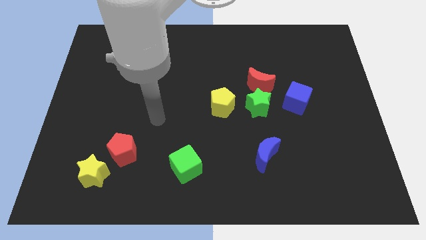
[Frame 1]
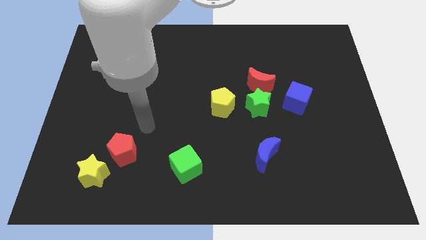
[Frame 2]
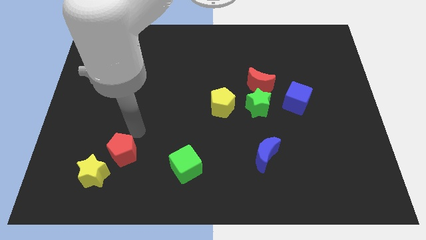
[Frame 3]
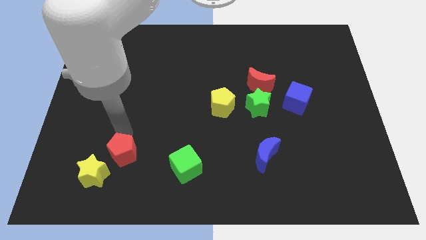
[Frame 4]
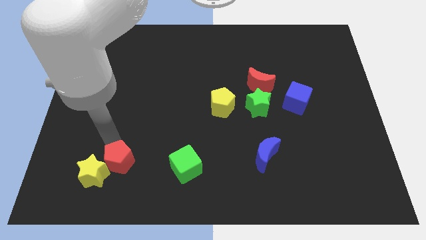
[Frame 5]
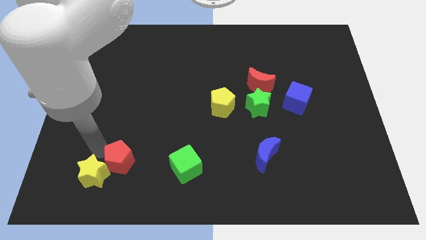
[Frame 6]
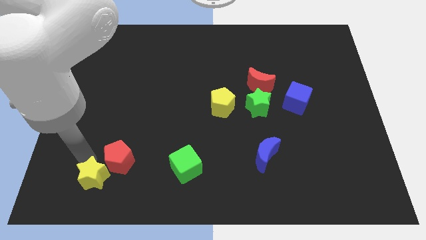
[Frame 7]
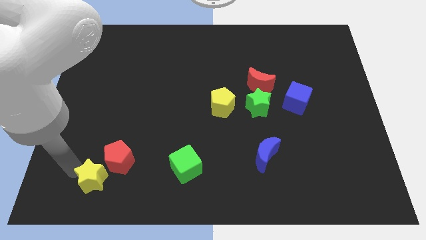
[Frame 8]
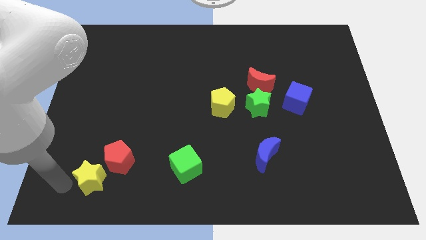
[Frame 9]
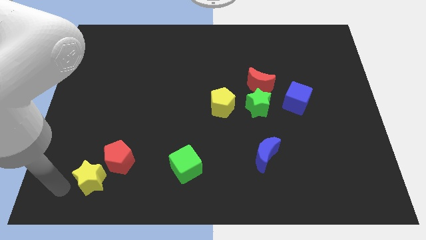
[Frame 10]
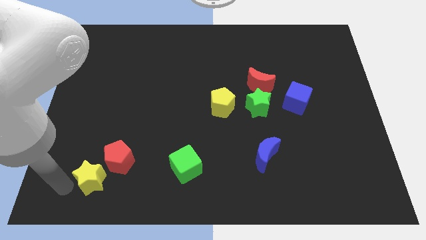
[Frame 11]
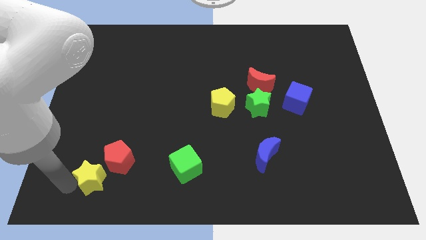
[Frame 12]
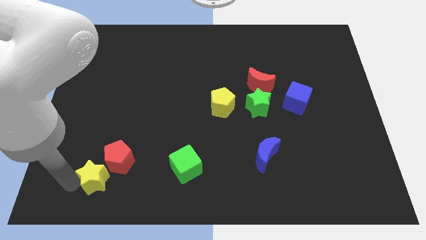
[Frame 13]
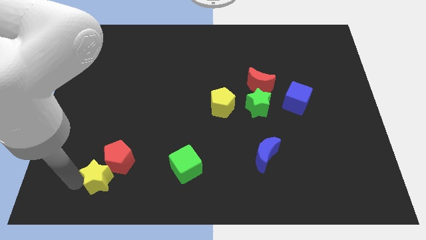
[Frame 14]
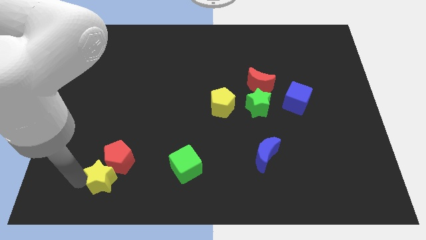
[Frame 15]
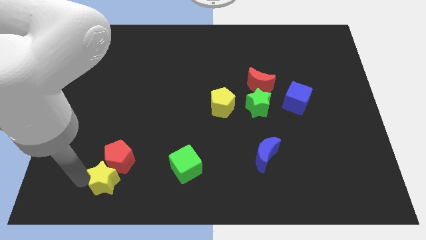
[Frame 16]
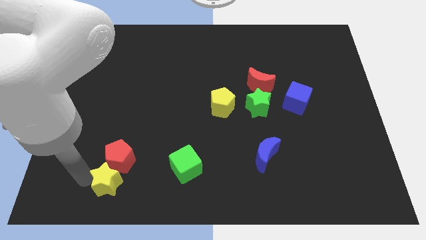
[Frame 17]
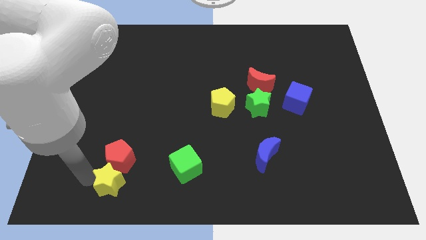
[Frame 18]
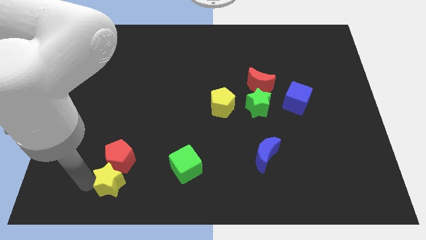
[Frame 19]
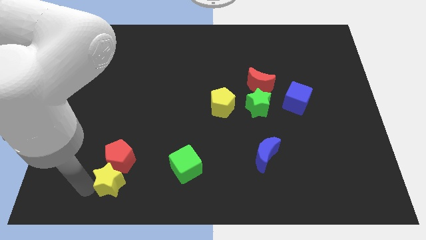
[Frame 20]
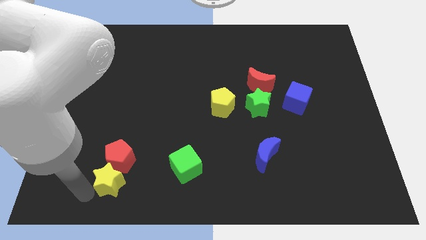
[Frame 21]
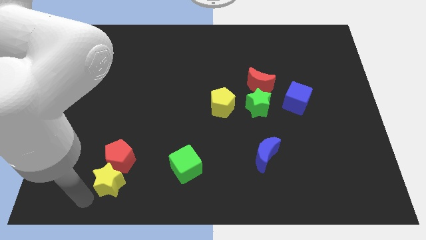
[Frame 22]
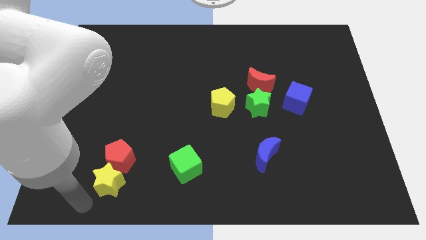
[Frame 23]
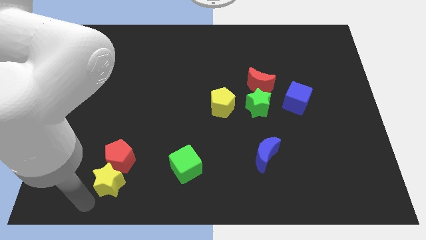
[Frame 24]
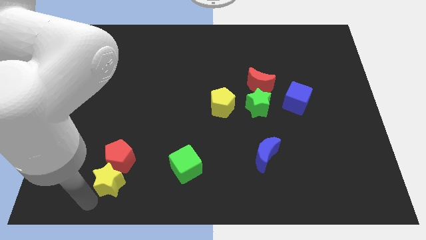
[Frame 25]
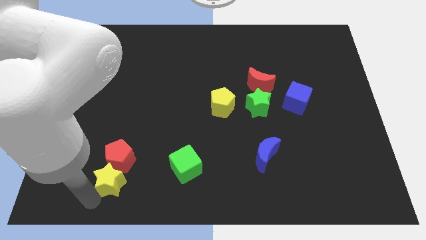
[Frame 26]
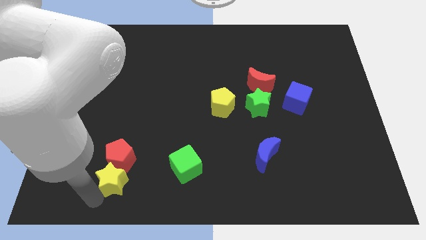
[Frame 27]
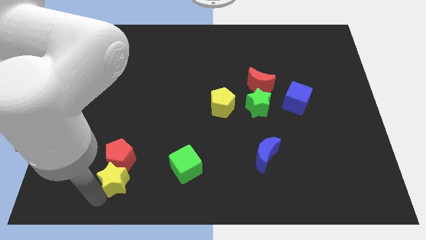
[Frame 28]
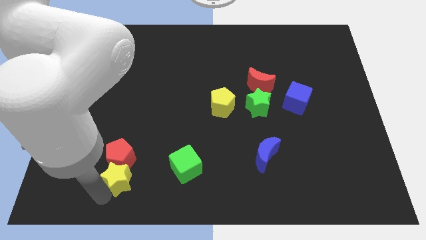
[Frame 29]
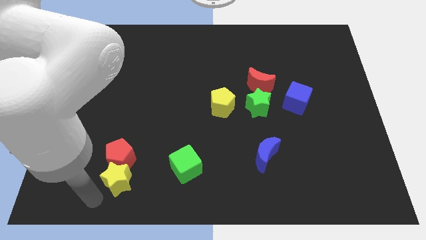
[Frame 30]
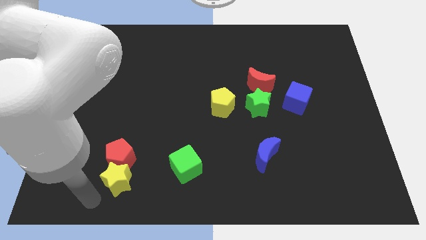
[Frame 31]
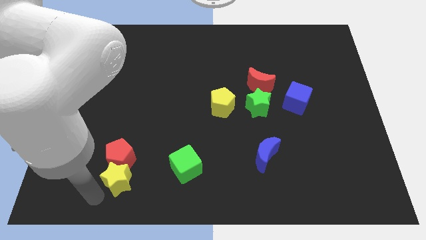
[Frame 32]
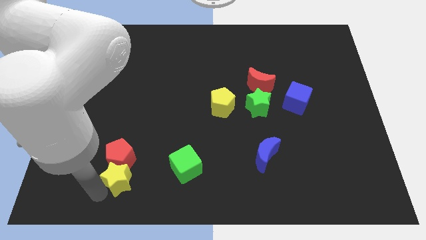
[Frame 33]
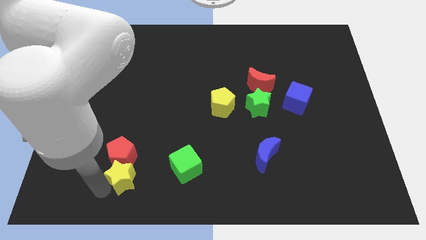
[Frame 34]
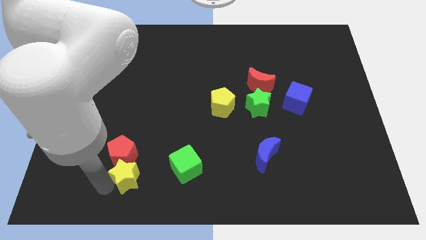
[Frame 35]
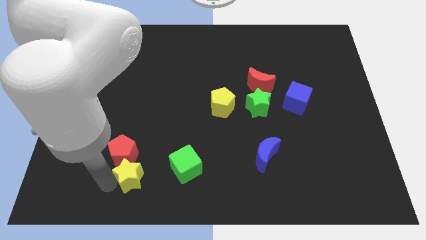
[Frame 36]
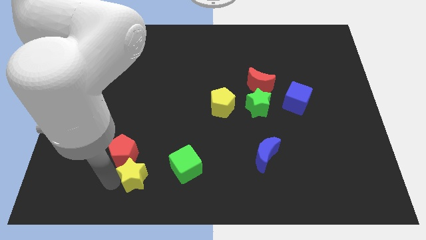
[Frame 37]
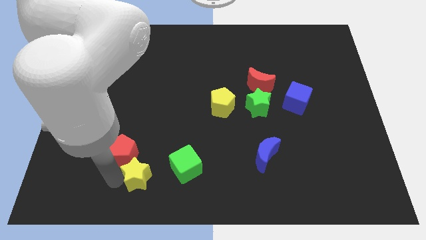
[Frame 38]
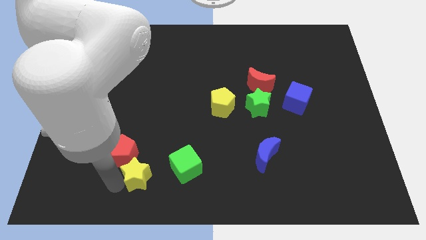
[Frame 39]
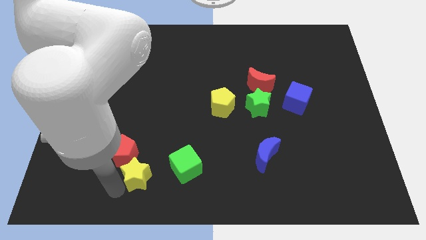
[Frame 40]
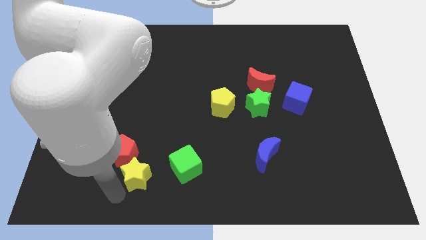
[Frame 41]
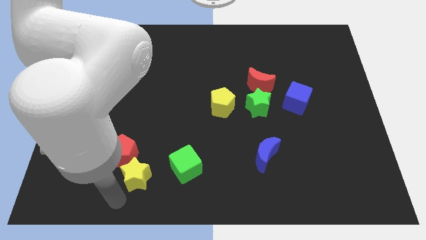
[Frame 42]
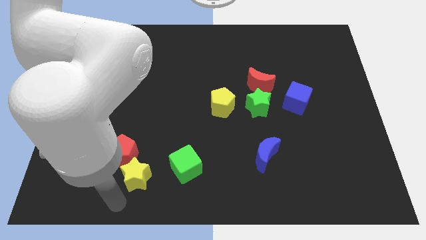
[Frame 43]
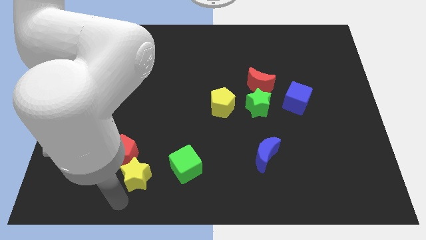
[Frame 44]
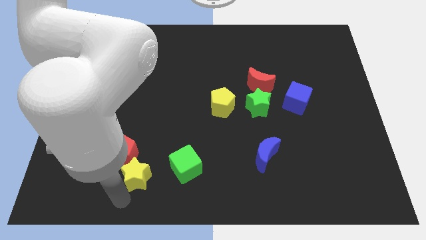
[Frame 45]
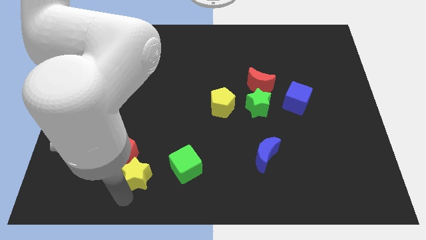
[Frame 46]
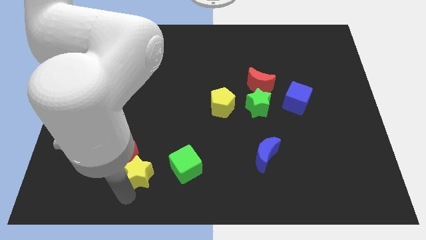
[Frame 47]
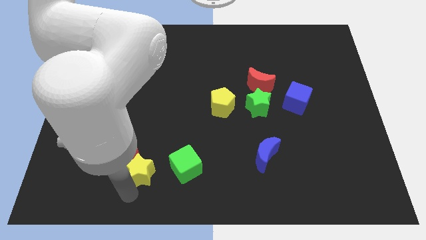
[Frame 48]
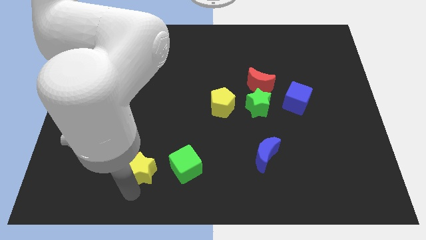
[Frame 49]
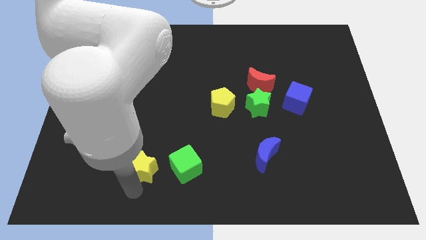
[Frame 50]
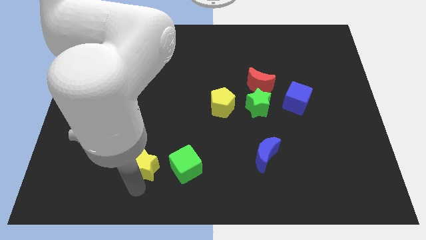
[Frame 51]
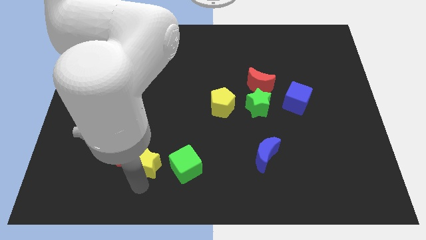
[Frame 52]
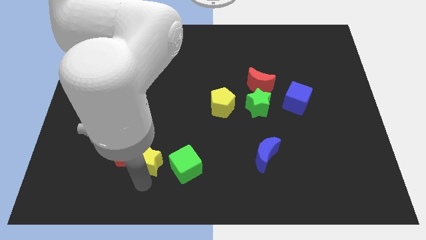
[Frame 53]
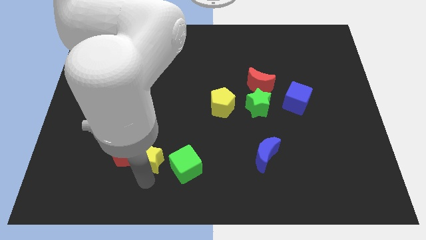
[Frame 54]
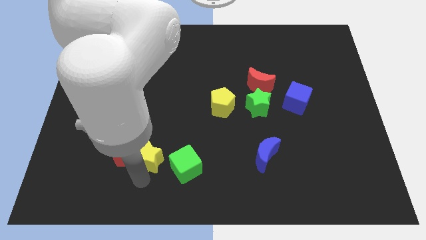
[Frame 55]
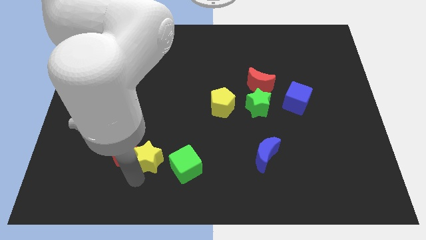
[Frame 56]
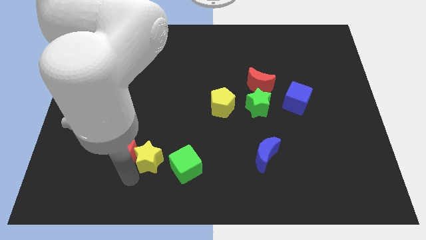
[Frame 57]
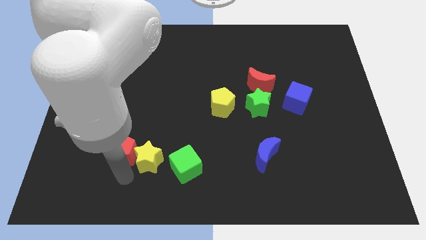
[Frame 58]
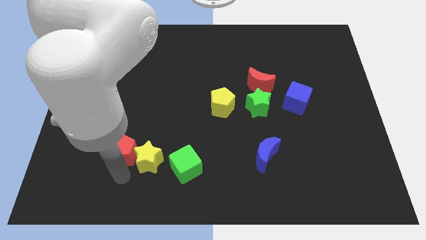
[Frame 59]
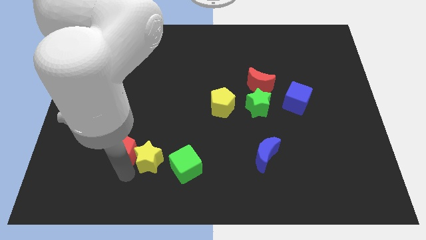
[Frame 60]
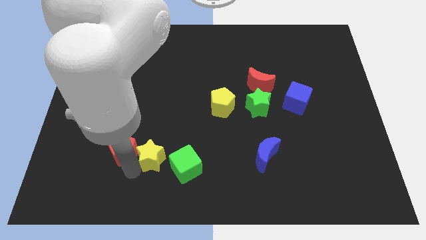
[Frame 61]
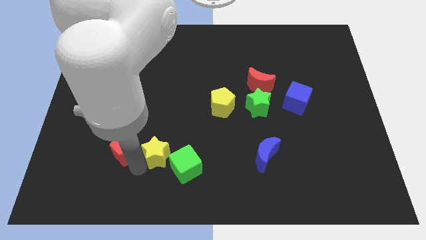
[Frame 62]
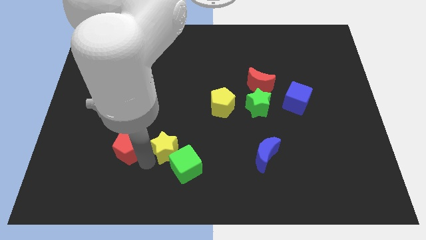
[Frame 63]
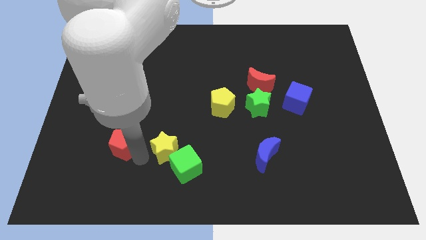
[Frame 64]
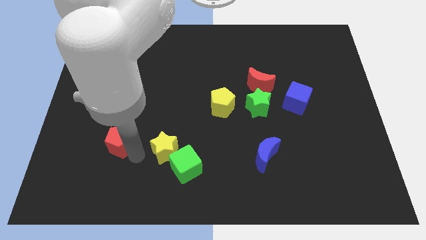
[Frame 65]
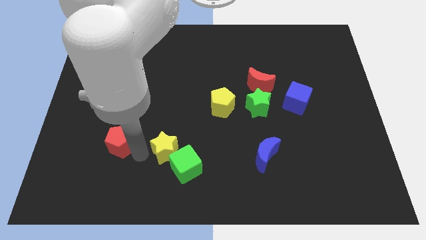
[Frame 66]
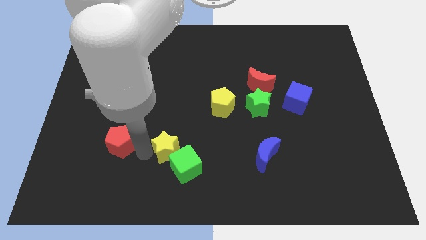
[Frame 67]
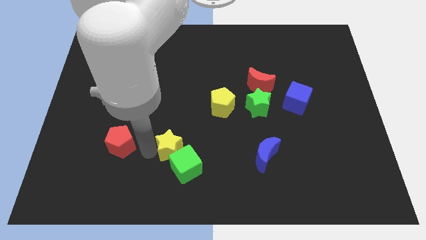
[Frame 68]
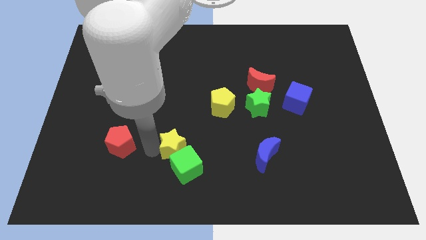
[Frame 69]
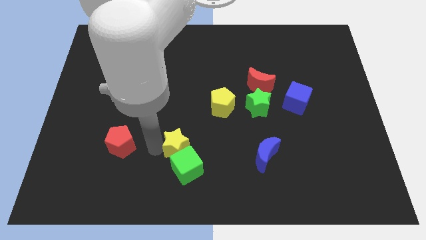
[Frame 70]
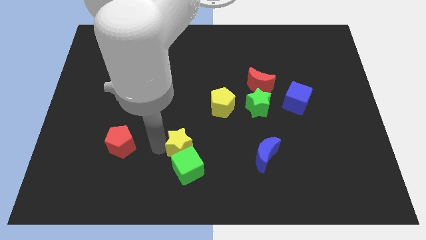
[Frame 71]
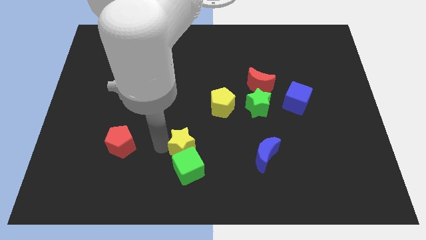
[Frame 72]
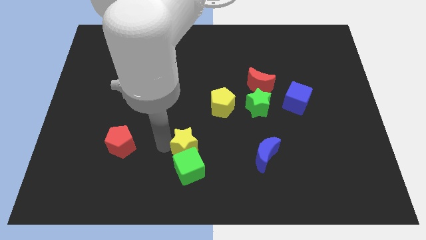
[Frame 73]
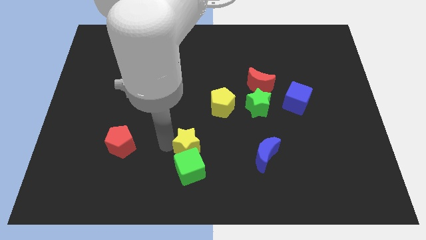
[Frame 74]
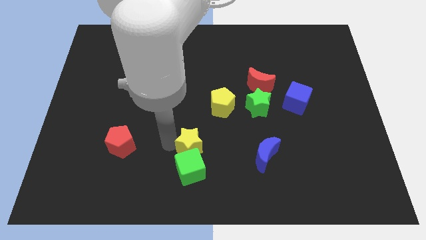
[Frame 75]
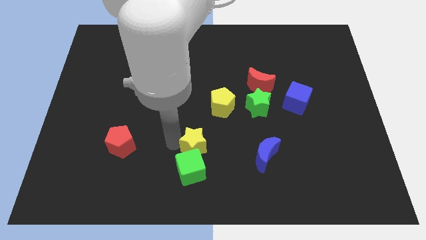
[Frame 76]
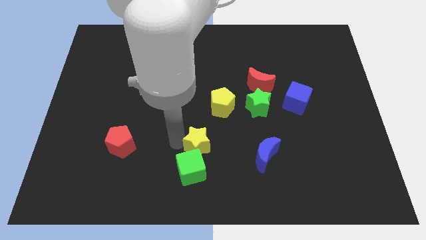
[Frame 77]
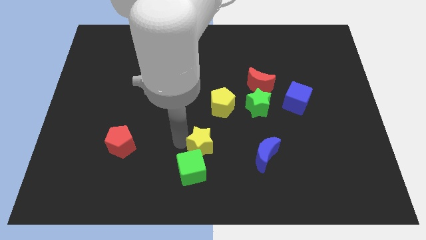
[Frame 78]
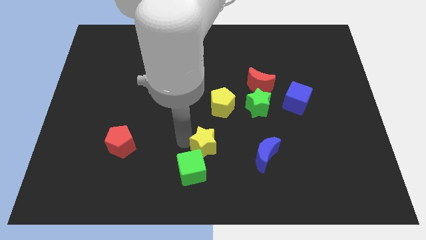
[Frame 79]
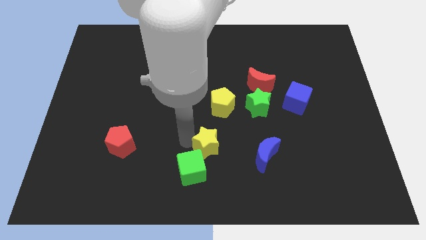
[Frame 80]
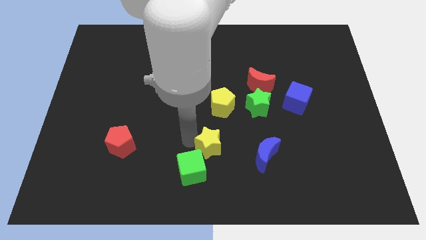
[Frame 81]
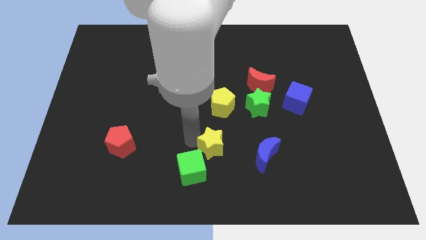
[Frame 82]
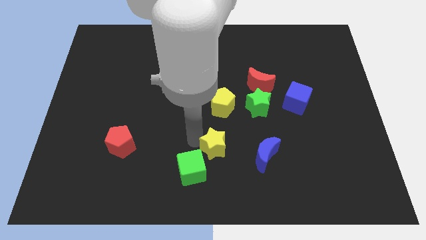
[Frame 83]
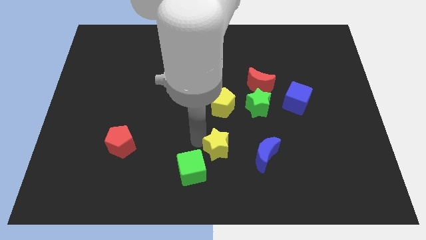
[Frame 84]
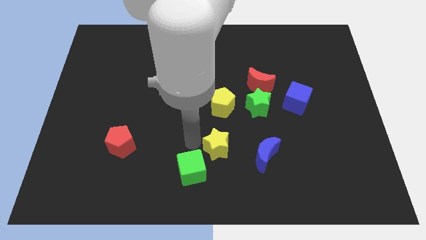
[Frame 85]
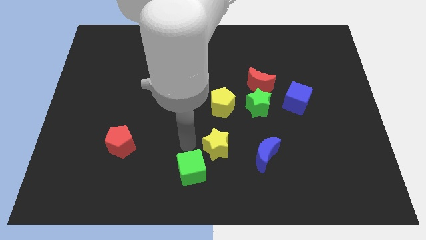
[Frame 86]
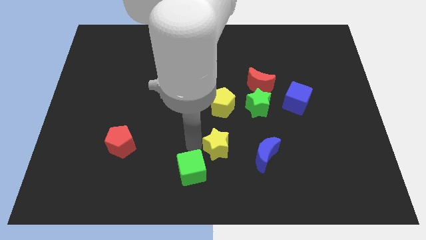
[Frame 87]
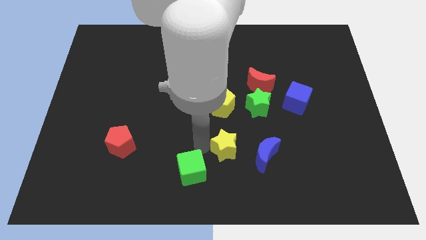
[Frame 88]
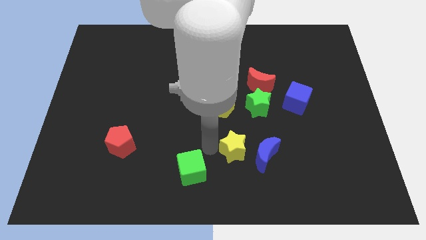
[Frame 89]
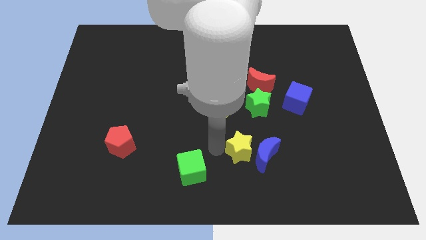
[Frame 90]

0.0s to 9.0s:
slide the yellow star towards the blue moon
